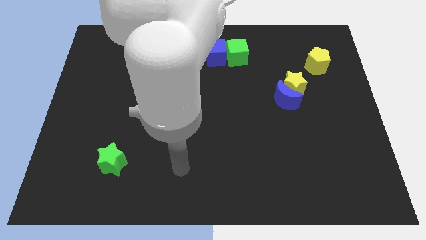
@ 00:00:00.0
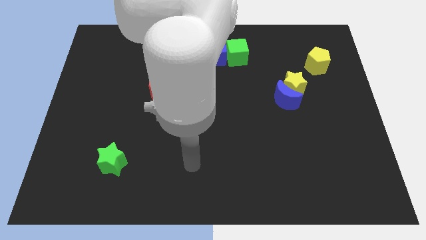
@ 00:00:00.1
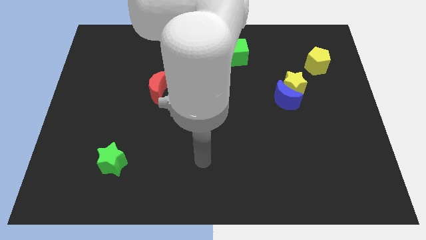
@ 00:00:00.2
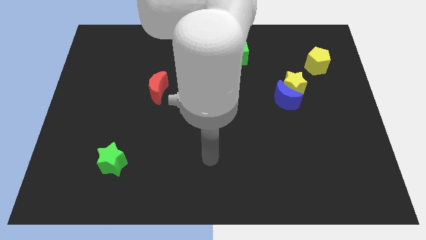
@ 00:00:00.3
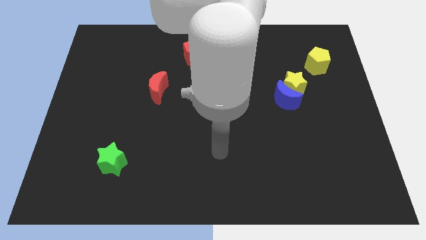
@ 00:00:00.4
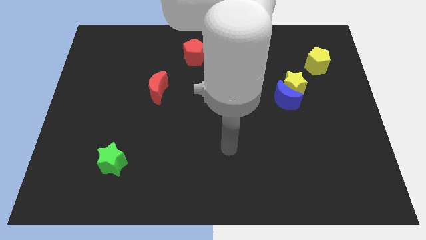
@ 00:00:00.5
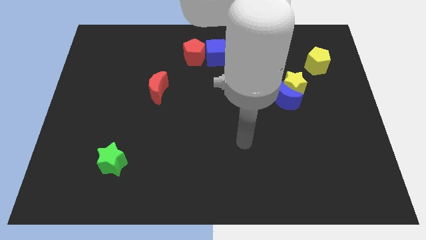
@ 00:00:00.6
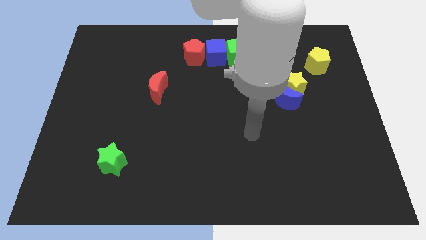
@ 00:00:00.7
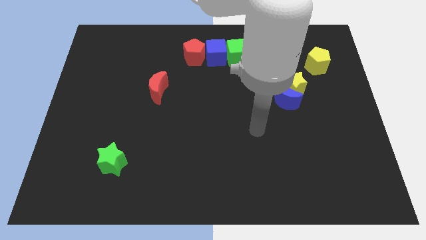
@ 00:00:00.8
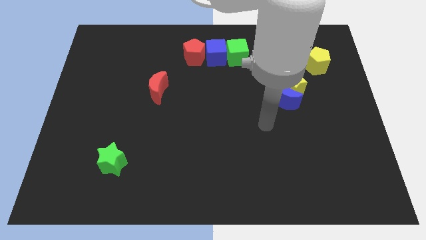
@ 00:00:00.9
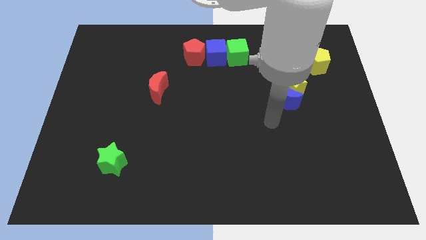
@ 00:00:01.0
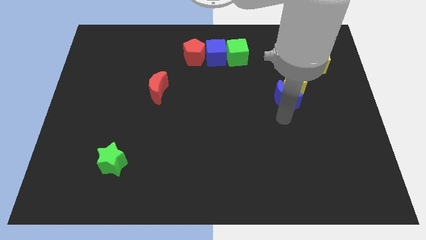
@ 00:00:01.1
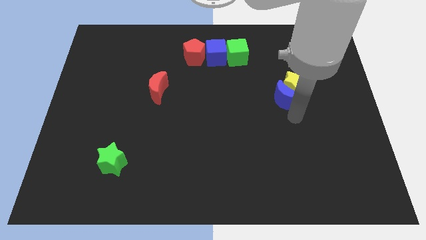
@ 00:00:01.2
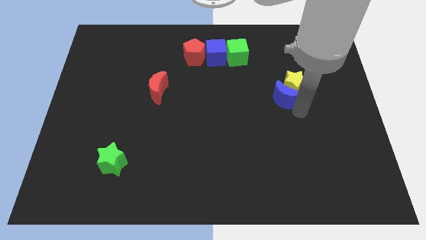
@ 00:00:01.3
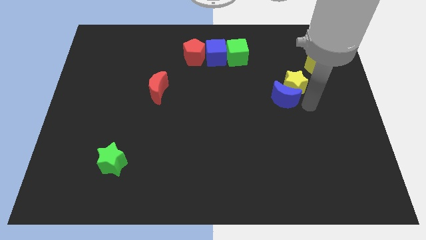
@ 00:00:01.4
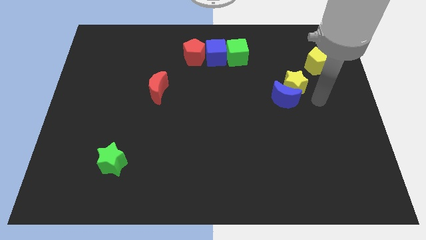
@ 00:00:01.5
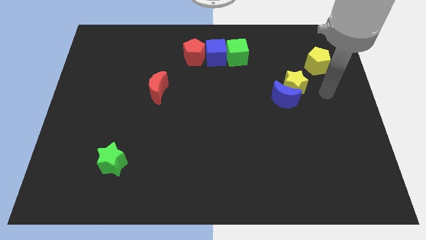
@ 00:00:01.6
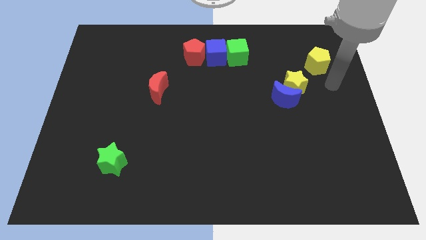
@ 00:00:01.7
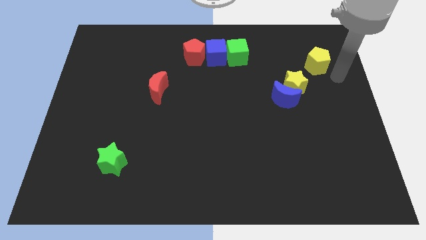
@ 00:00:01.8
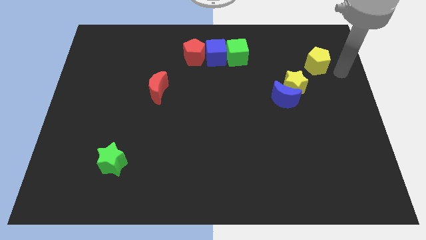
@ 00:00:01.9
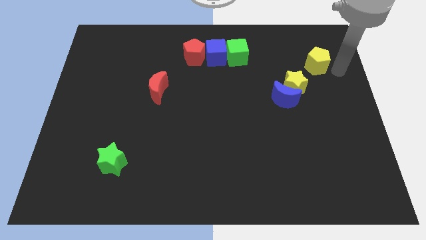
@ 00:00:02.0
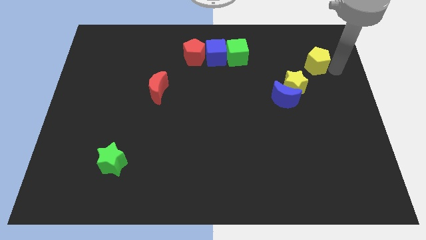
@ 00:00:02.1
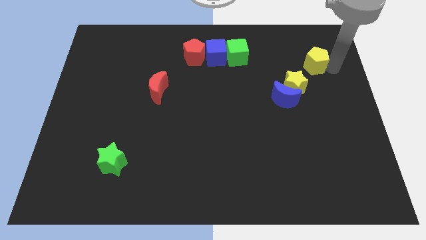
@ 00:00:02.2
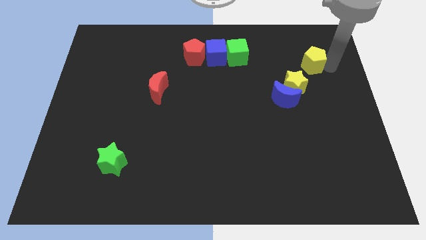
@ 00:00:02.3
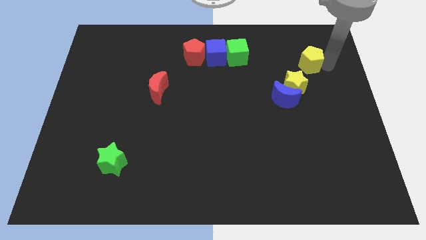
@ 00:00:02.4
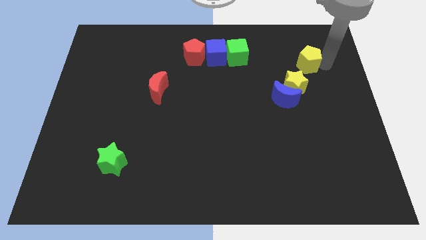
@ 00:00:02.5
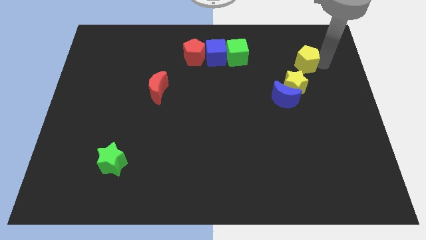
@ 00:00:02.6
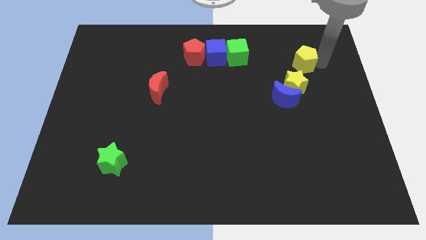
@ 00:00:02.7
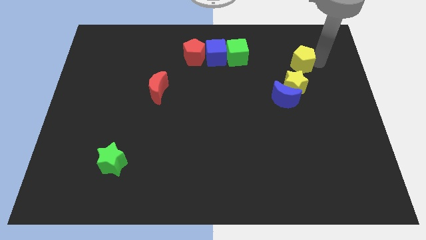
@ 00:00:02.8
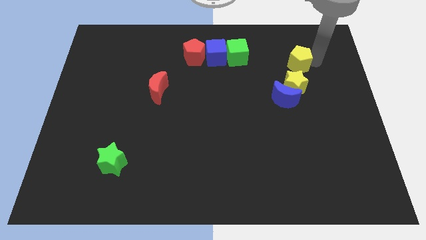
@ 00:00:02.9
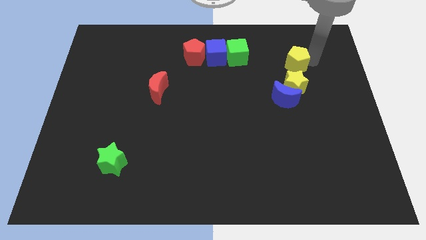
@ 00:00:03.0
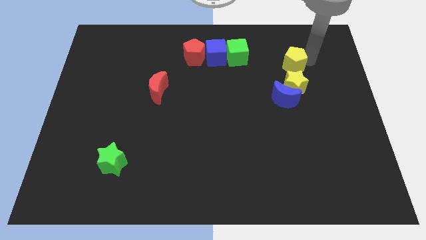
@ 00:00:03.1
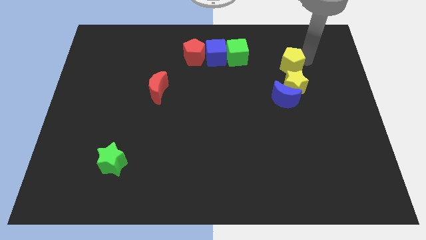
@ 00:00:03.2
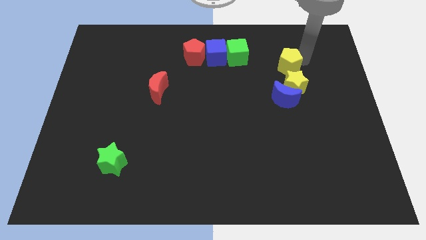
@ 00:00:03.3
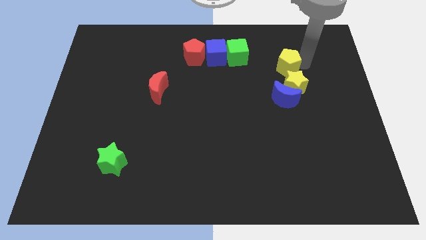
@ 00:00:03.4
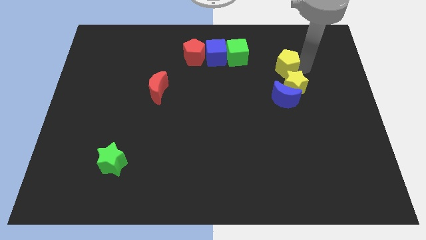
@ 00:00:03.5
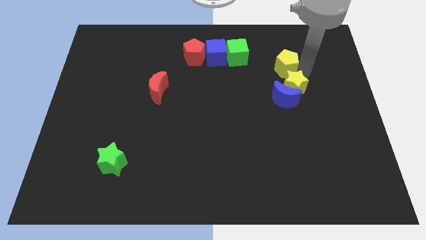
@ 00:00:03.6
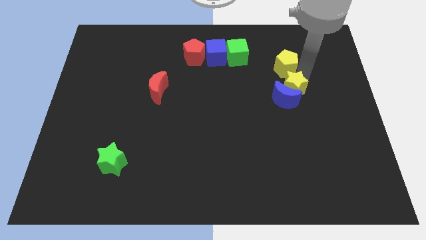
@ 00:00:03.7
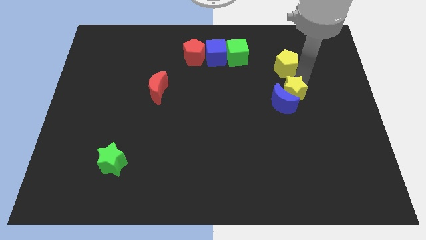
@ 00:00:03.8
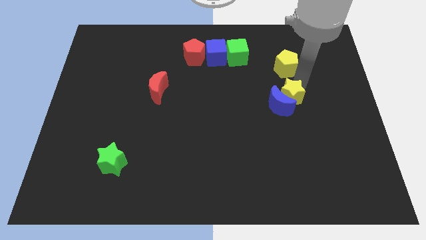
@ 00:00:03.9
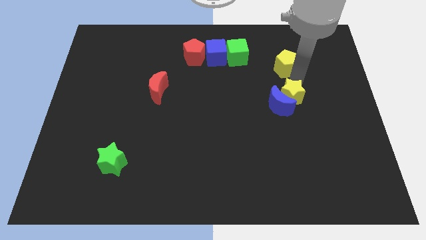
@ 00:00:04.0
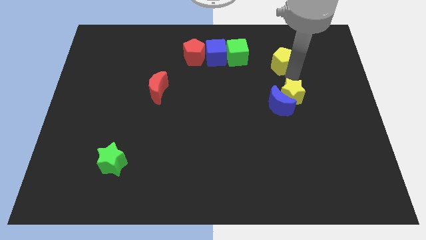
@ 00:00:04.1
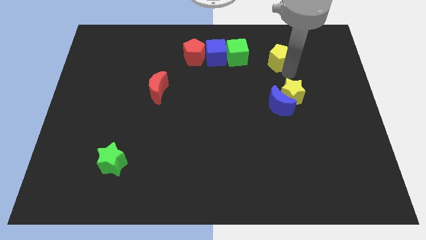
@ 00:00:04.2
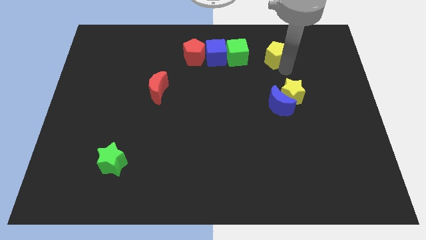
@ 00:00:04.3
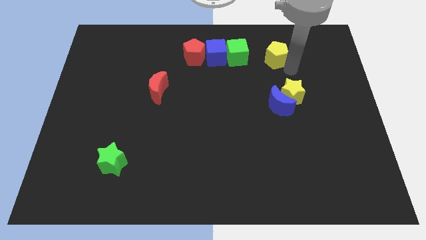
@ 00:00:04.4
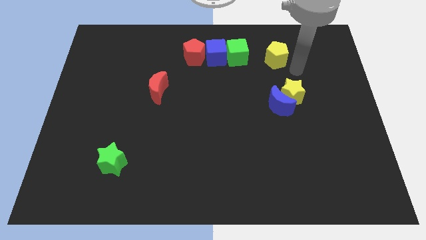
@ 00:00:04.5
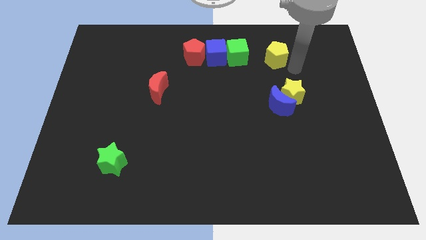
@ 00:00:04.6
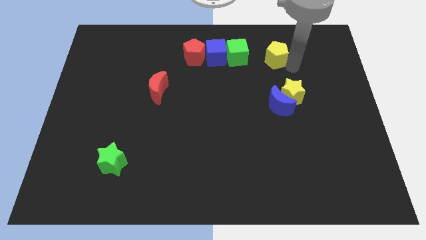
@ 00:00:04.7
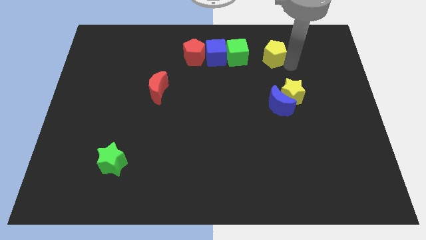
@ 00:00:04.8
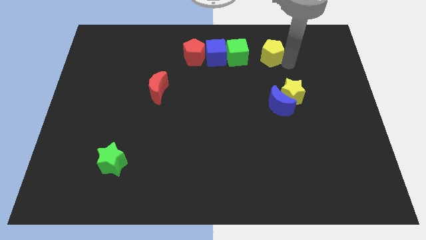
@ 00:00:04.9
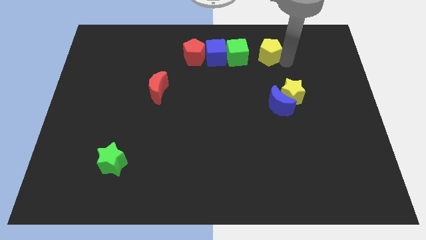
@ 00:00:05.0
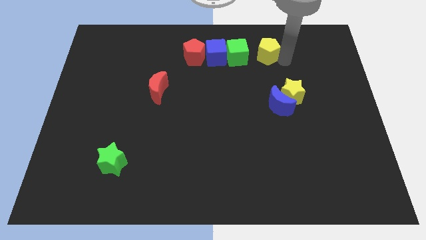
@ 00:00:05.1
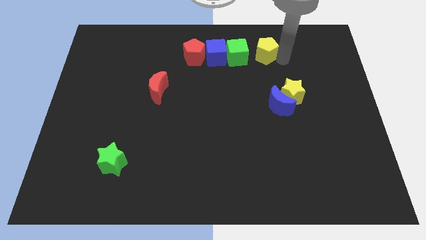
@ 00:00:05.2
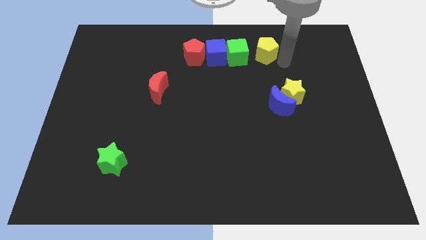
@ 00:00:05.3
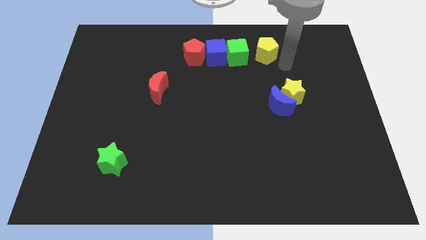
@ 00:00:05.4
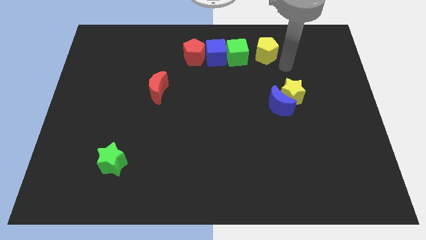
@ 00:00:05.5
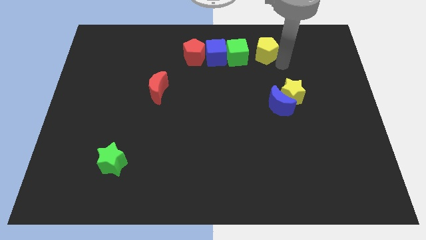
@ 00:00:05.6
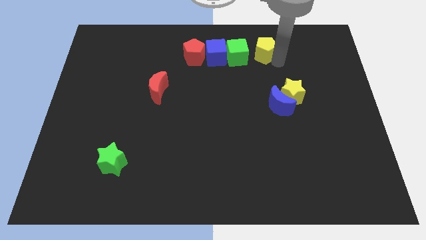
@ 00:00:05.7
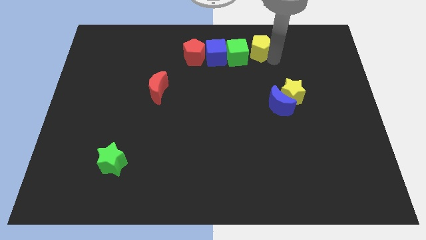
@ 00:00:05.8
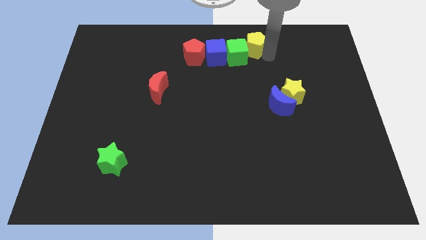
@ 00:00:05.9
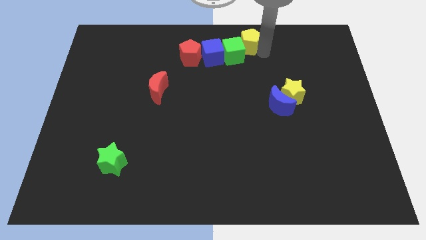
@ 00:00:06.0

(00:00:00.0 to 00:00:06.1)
push the yellow pentagon to the top side
